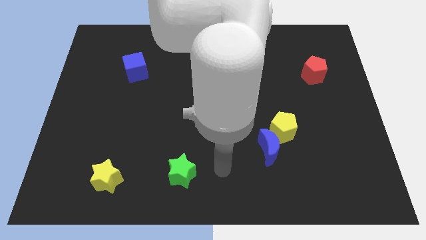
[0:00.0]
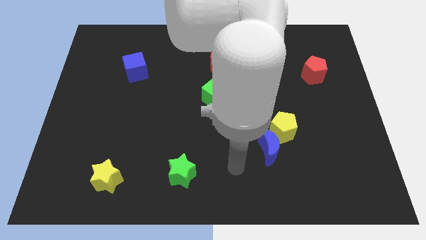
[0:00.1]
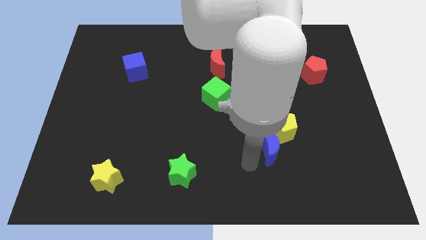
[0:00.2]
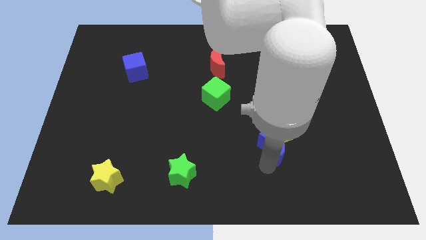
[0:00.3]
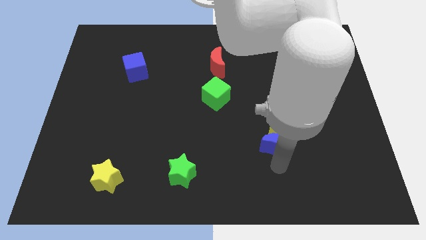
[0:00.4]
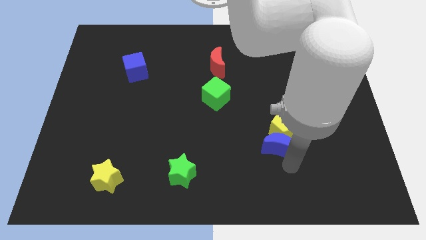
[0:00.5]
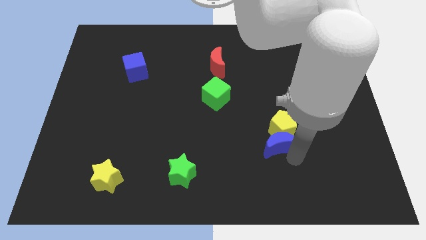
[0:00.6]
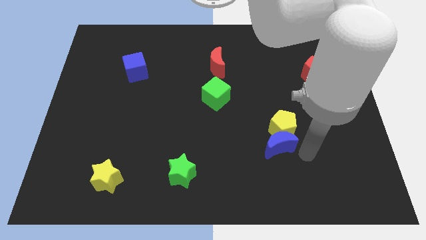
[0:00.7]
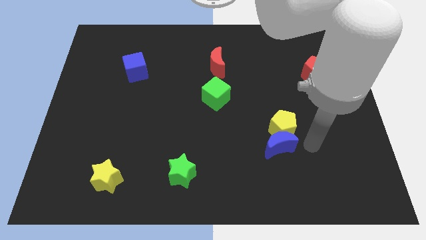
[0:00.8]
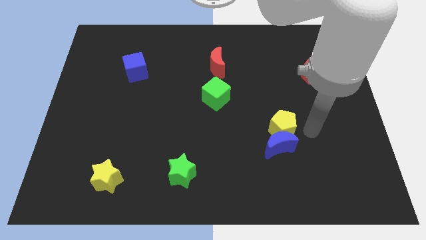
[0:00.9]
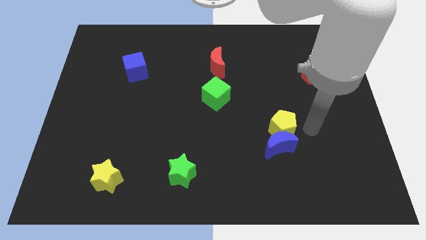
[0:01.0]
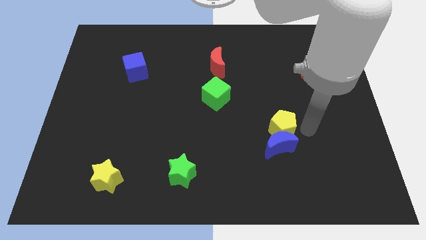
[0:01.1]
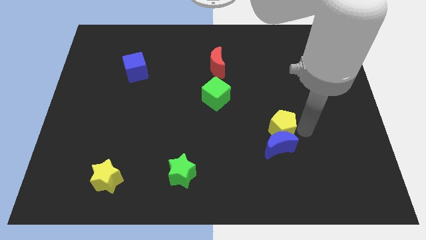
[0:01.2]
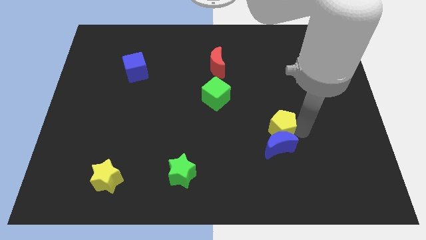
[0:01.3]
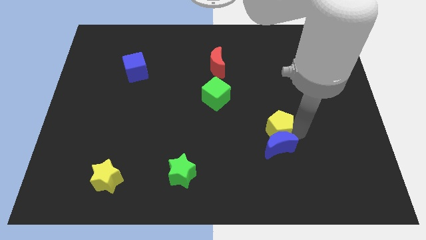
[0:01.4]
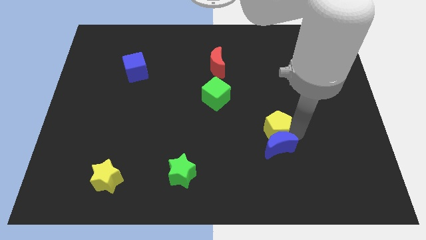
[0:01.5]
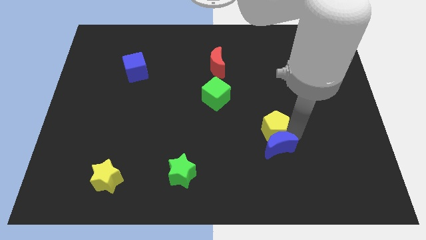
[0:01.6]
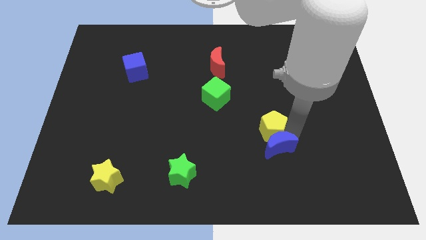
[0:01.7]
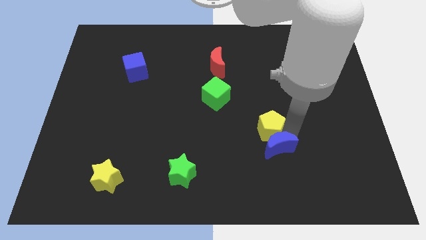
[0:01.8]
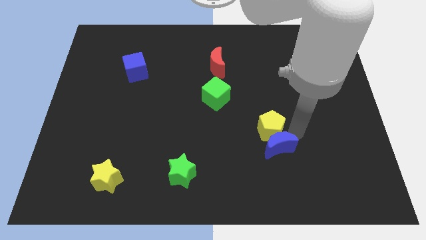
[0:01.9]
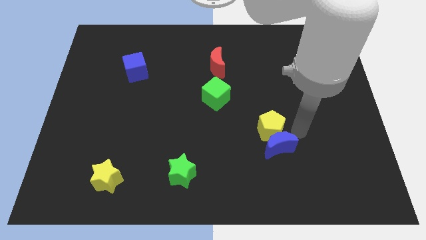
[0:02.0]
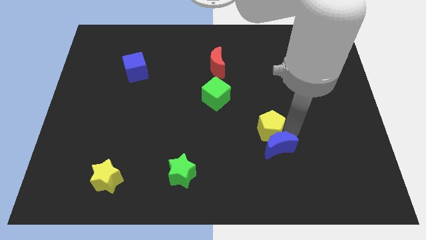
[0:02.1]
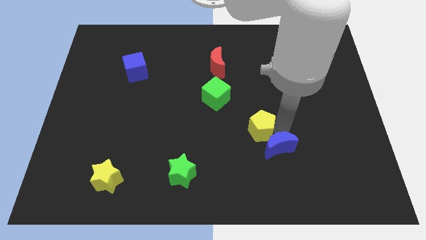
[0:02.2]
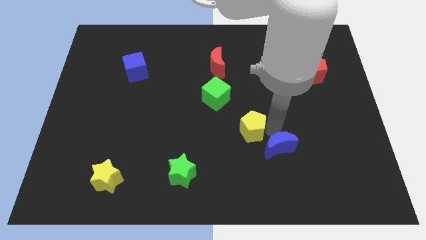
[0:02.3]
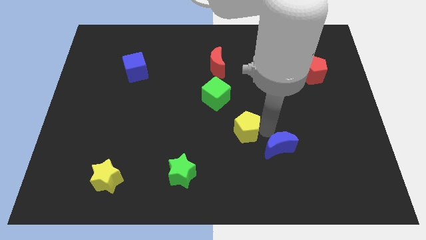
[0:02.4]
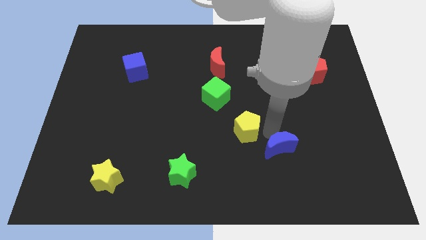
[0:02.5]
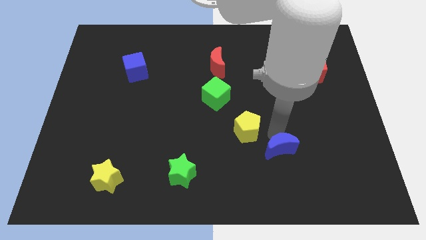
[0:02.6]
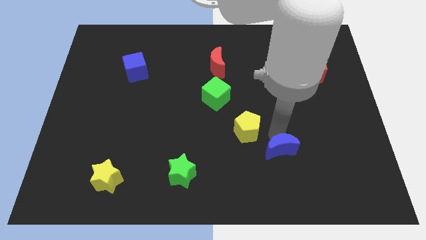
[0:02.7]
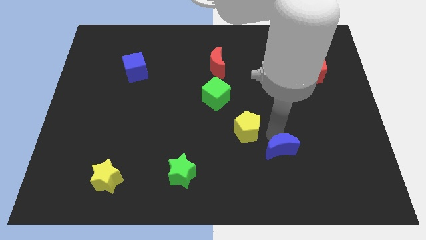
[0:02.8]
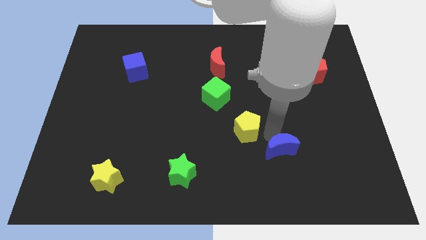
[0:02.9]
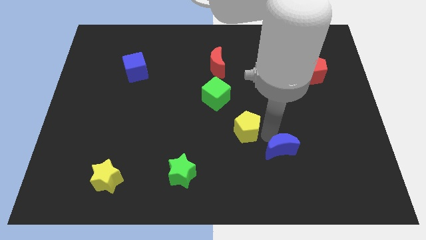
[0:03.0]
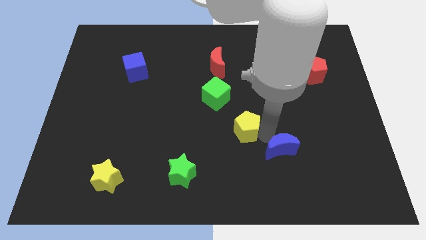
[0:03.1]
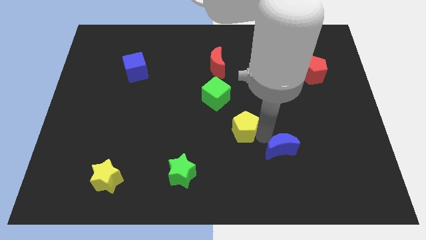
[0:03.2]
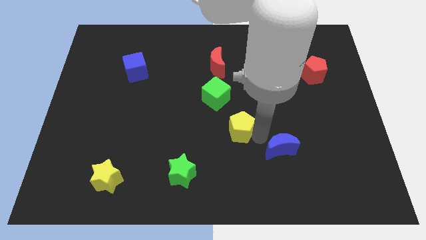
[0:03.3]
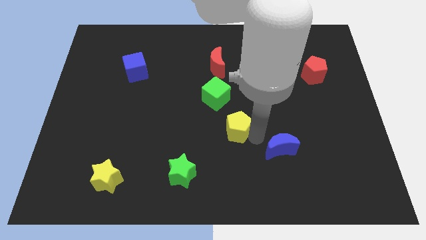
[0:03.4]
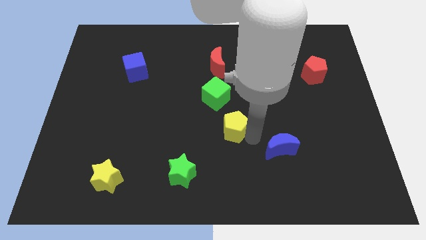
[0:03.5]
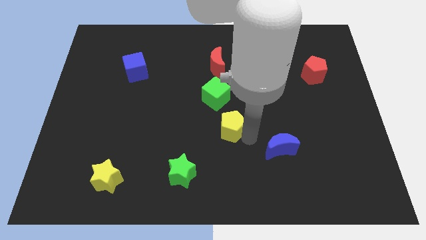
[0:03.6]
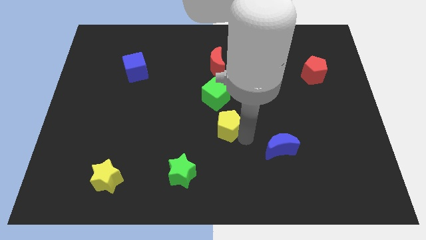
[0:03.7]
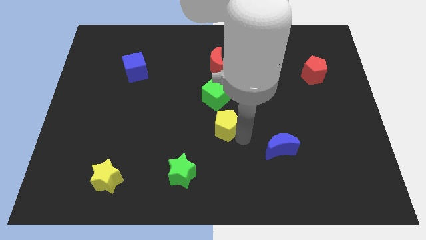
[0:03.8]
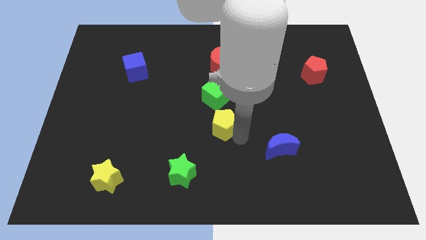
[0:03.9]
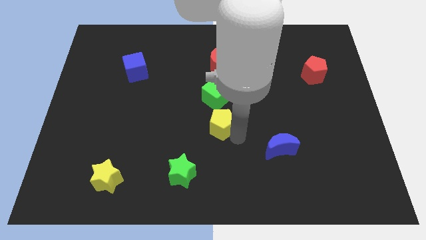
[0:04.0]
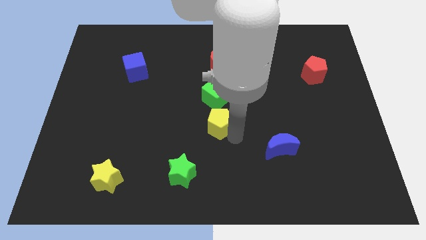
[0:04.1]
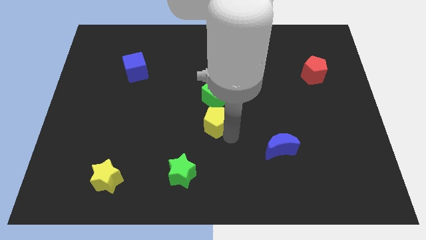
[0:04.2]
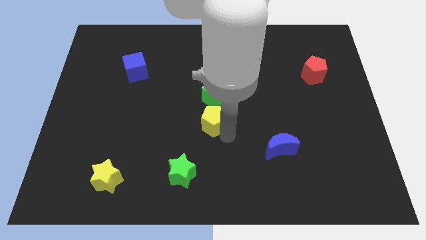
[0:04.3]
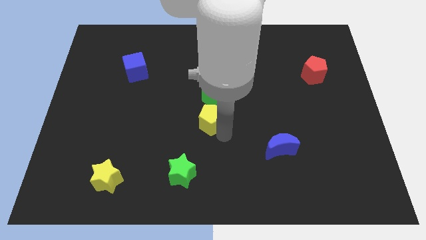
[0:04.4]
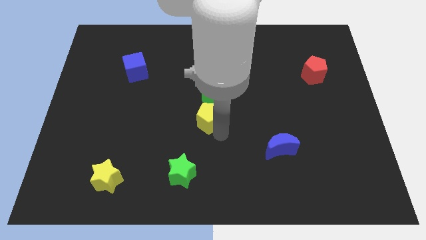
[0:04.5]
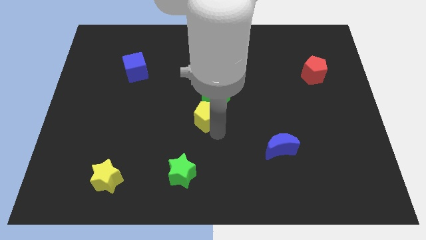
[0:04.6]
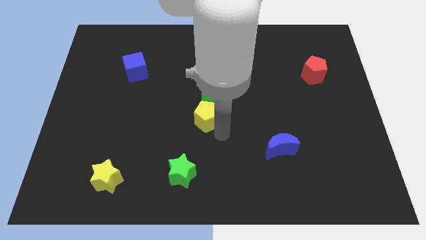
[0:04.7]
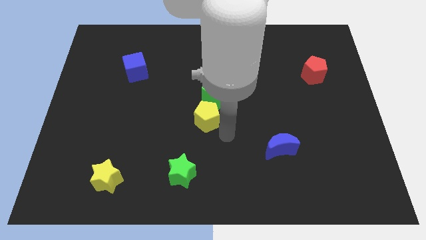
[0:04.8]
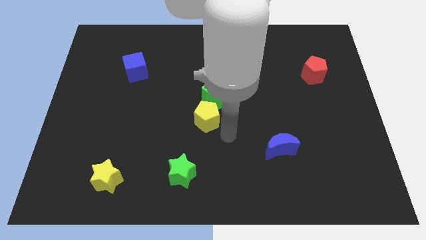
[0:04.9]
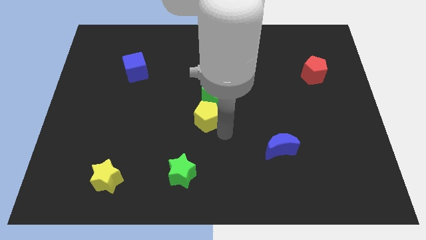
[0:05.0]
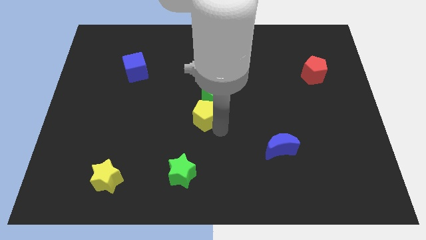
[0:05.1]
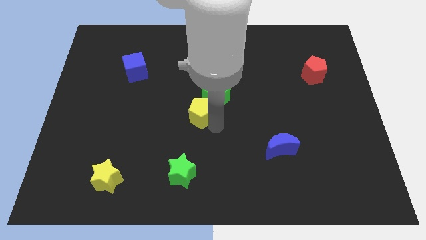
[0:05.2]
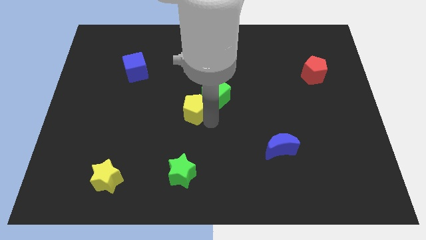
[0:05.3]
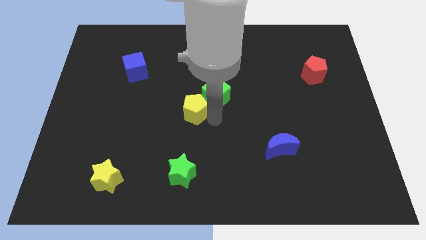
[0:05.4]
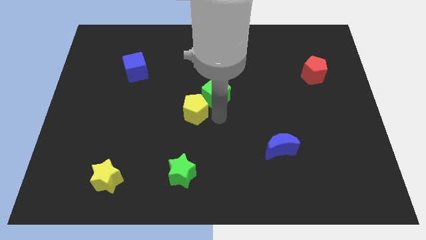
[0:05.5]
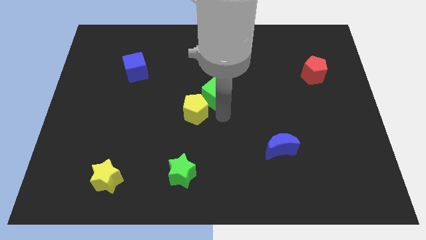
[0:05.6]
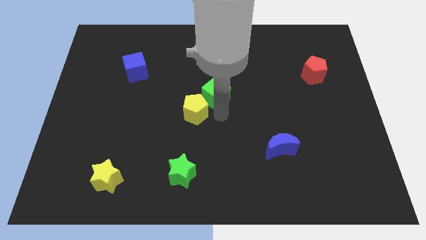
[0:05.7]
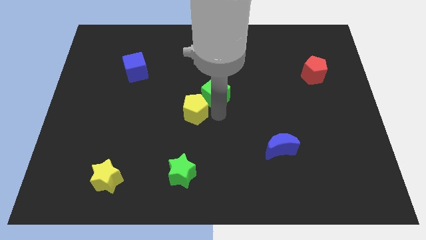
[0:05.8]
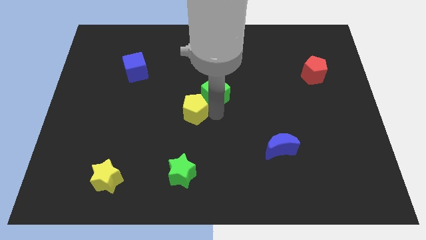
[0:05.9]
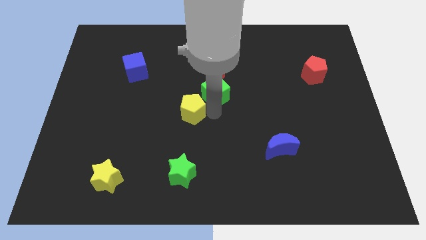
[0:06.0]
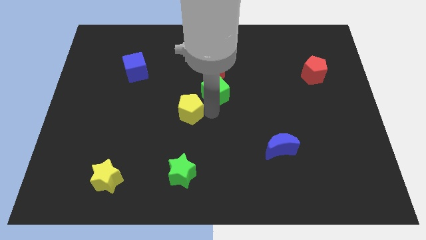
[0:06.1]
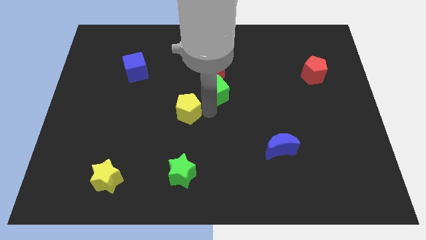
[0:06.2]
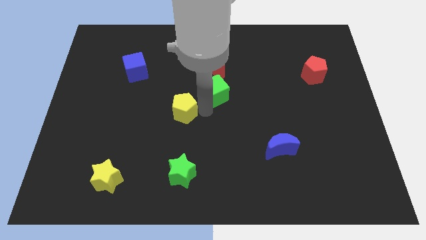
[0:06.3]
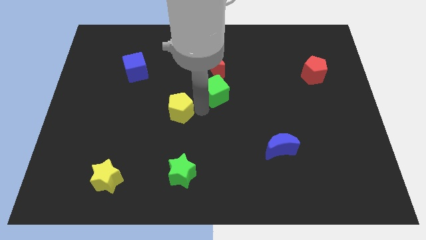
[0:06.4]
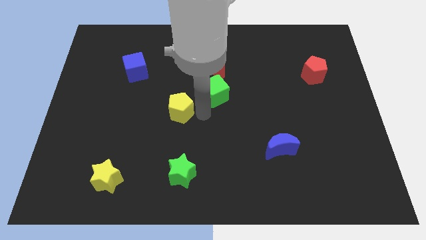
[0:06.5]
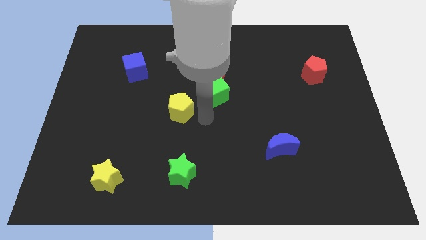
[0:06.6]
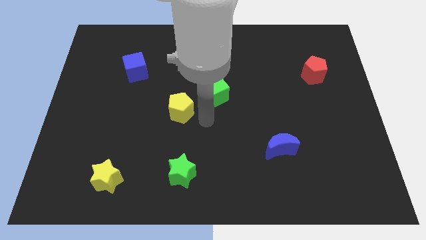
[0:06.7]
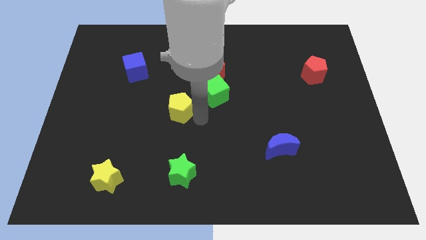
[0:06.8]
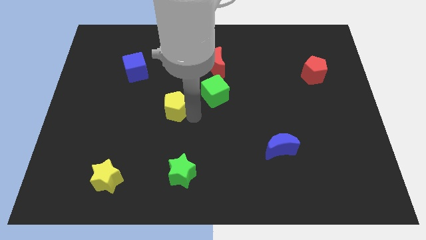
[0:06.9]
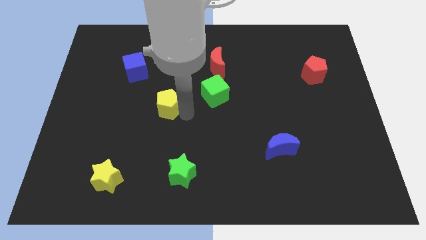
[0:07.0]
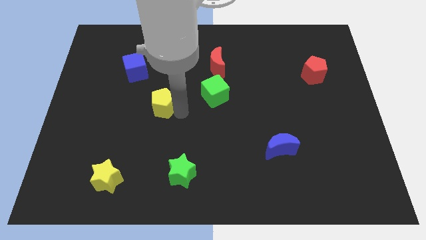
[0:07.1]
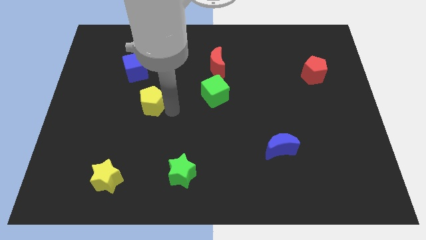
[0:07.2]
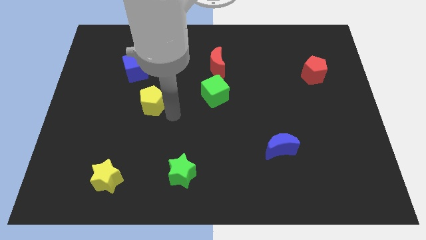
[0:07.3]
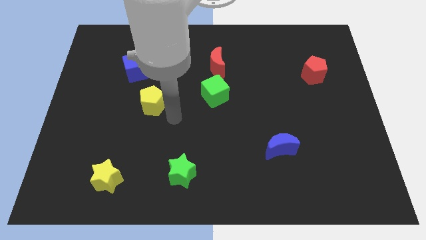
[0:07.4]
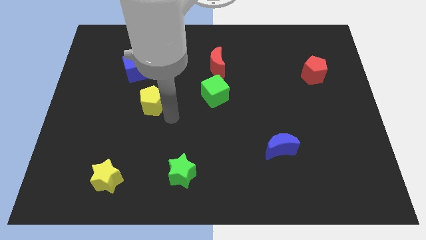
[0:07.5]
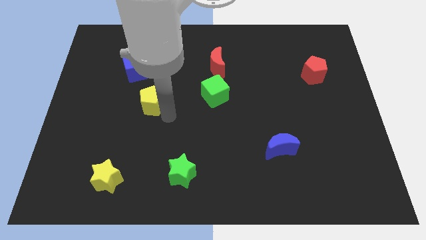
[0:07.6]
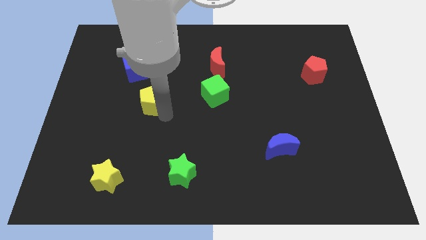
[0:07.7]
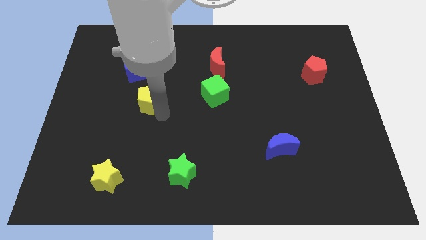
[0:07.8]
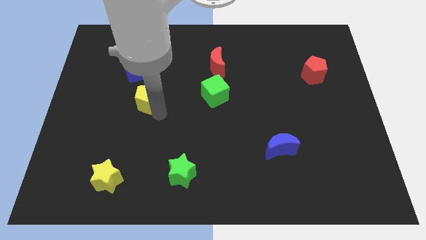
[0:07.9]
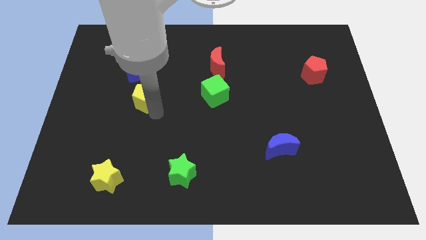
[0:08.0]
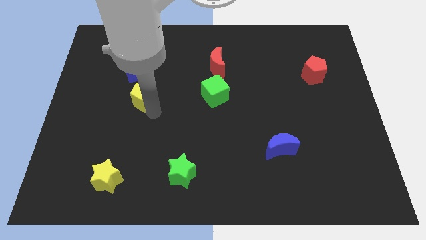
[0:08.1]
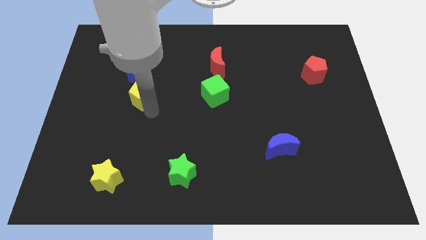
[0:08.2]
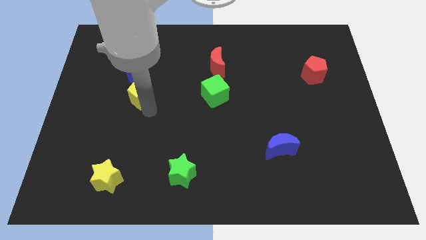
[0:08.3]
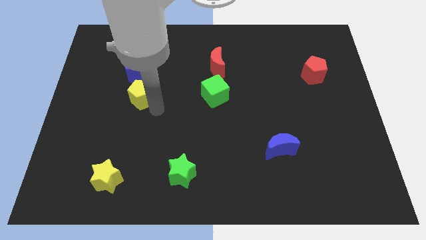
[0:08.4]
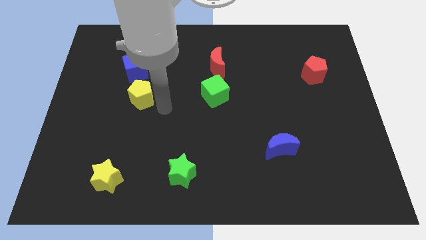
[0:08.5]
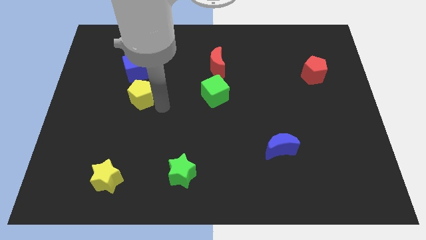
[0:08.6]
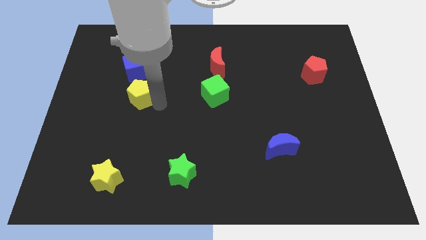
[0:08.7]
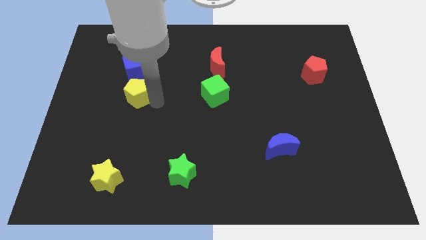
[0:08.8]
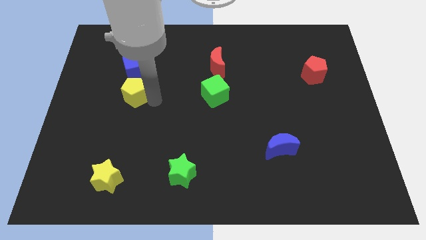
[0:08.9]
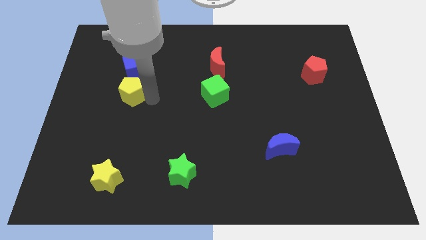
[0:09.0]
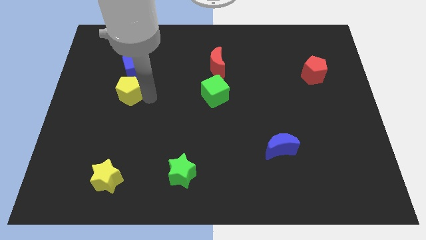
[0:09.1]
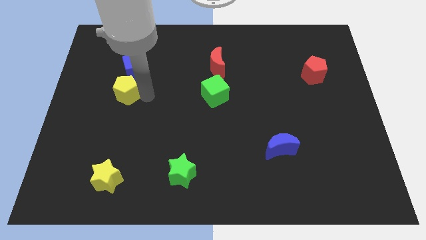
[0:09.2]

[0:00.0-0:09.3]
put the yellow pentagon diagonally down and to the left of the blue cube
